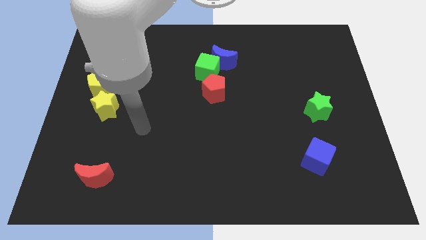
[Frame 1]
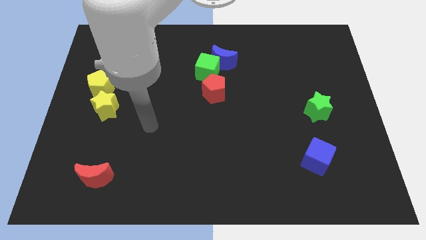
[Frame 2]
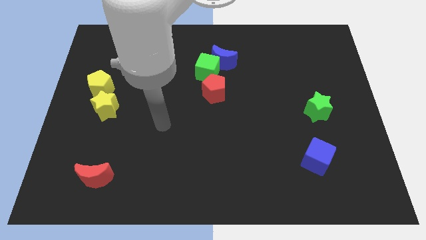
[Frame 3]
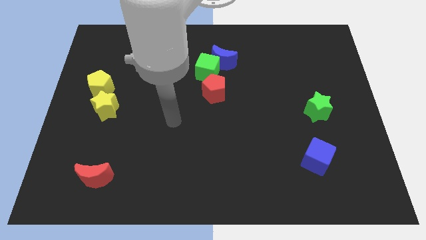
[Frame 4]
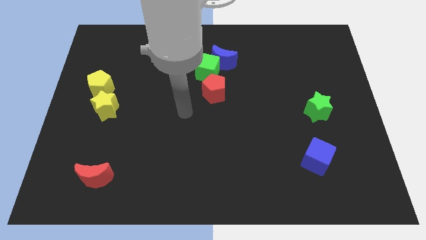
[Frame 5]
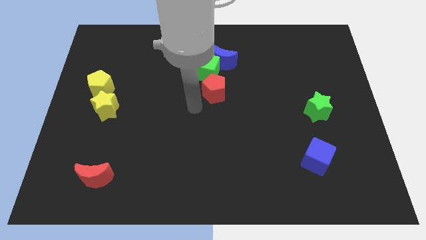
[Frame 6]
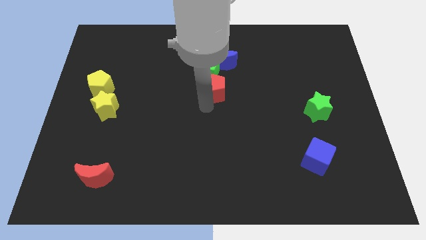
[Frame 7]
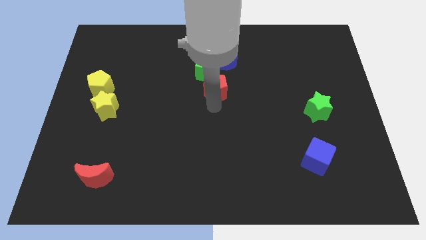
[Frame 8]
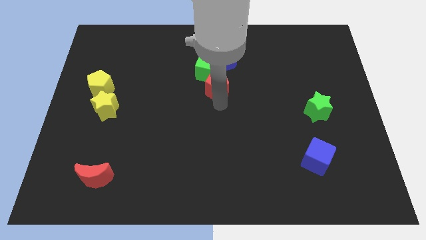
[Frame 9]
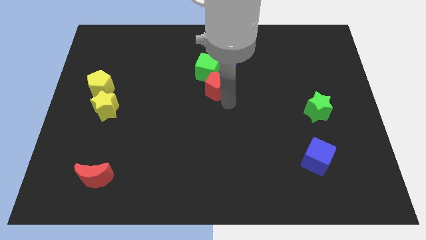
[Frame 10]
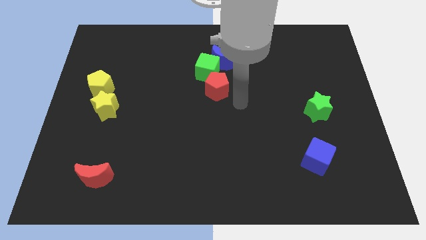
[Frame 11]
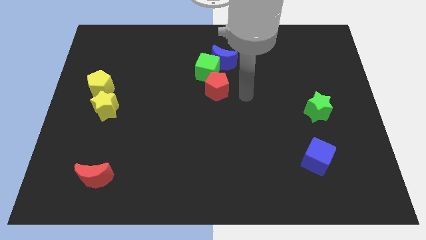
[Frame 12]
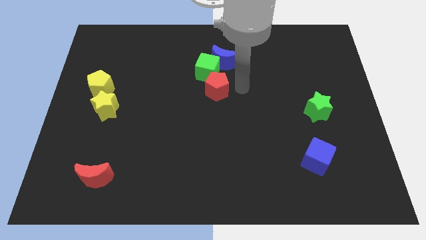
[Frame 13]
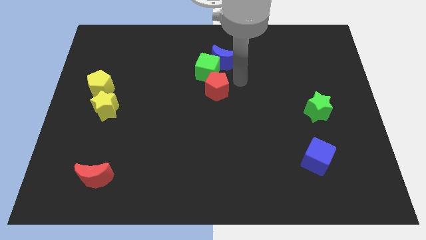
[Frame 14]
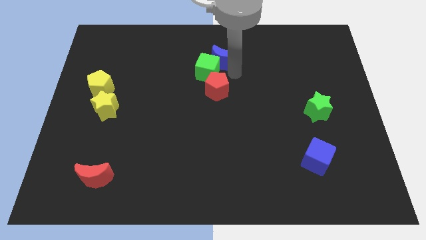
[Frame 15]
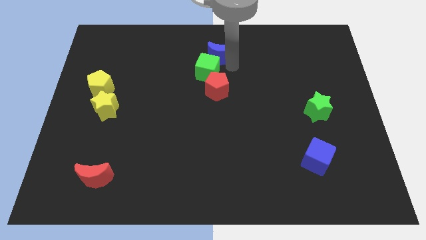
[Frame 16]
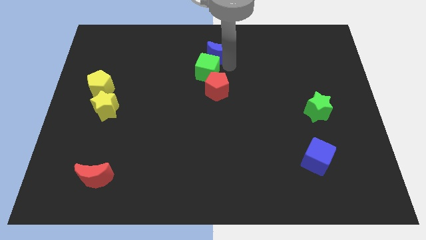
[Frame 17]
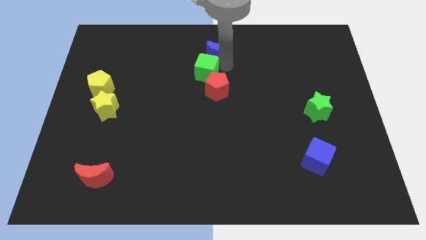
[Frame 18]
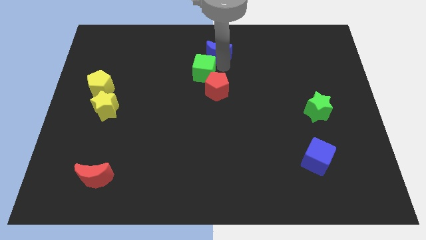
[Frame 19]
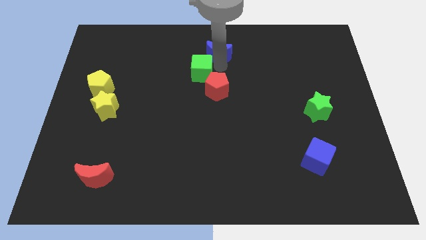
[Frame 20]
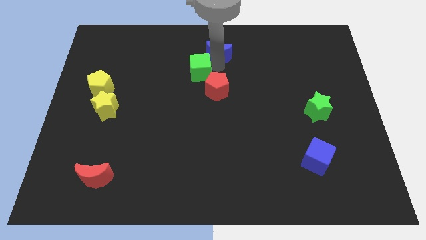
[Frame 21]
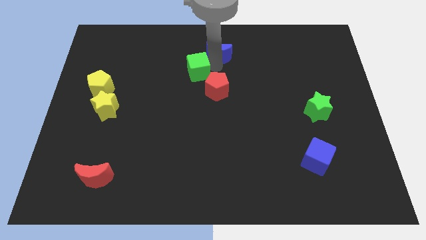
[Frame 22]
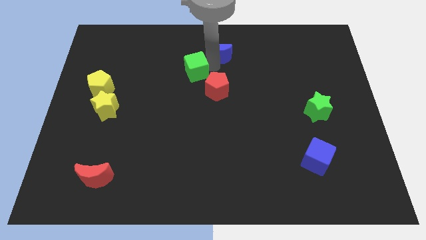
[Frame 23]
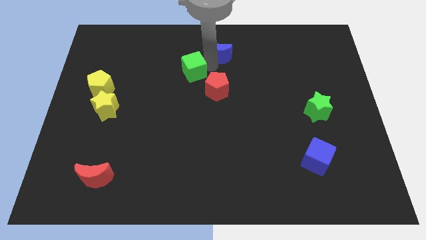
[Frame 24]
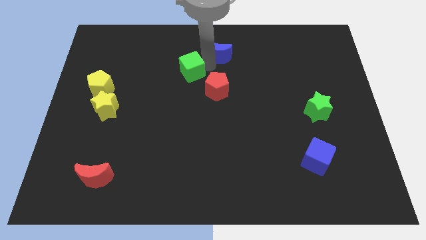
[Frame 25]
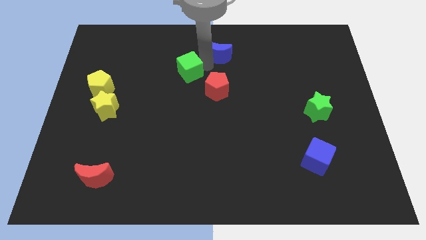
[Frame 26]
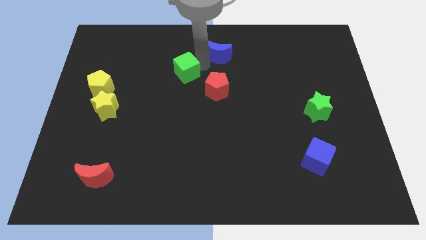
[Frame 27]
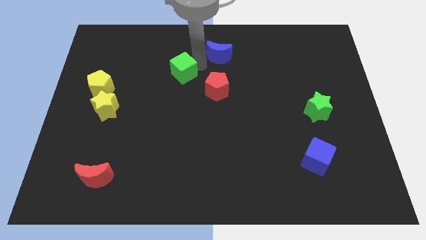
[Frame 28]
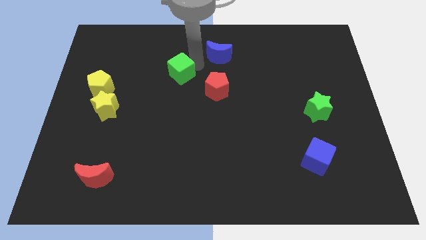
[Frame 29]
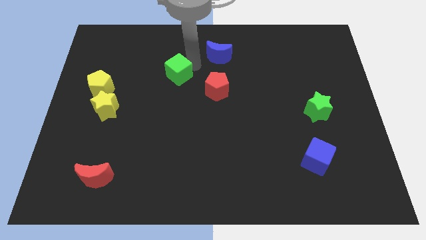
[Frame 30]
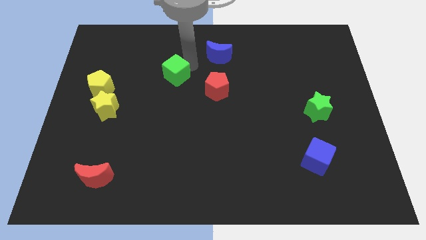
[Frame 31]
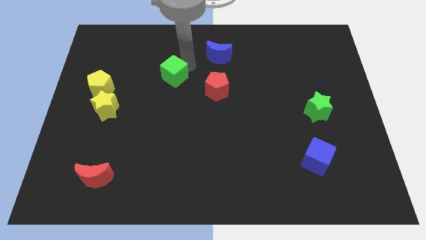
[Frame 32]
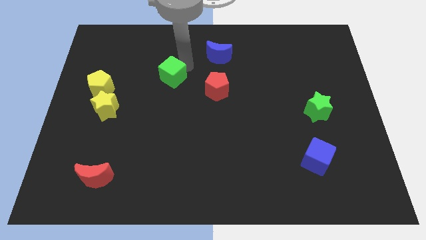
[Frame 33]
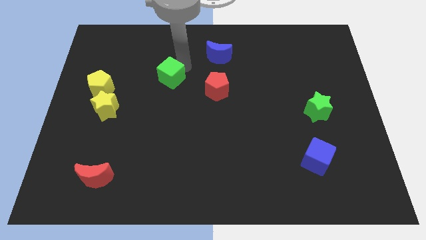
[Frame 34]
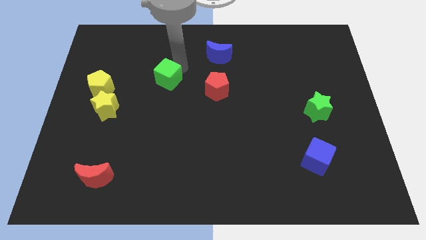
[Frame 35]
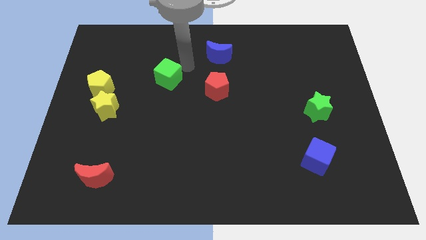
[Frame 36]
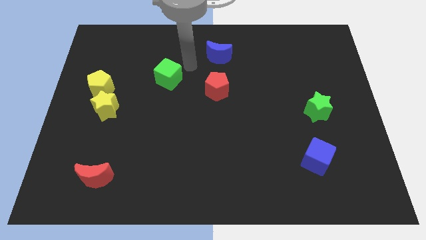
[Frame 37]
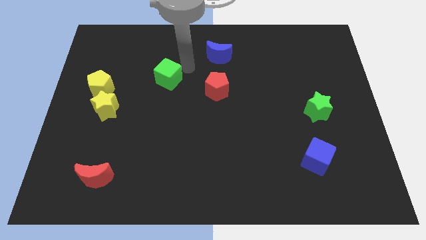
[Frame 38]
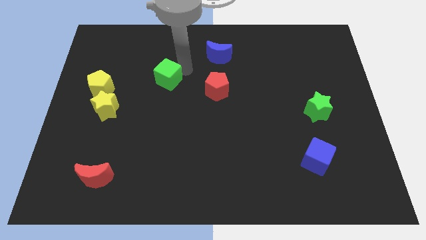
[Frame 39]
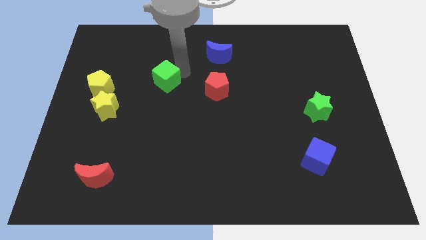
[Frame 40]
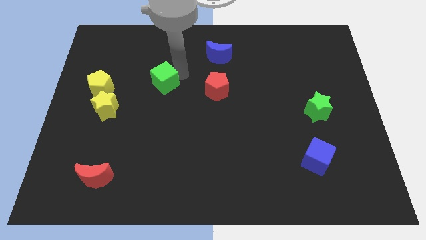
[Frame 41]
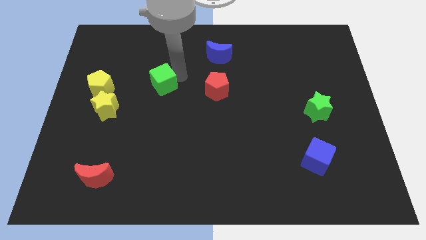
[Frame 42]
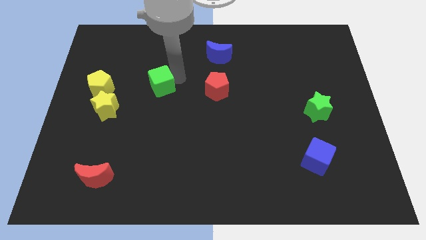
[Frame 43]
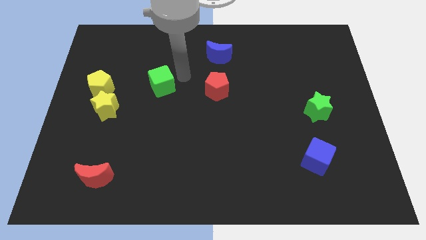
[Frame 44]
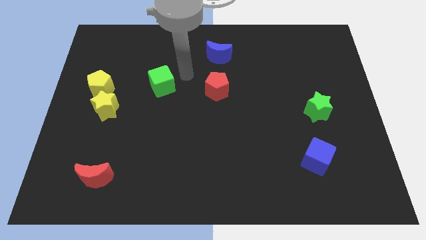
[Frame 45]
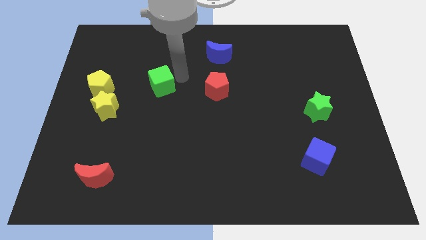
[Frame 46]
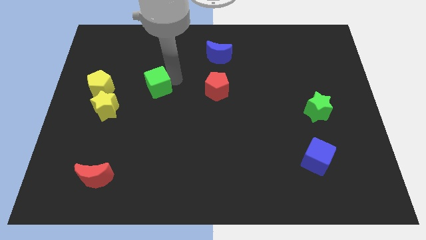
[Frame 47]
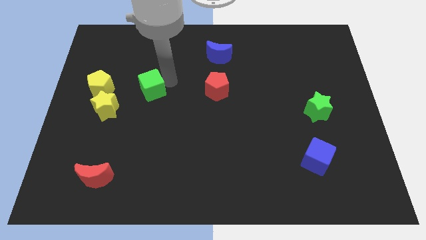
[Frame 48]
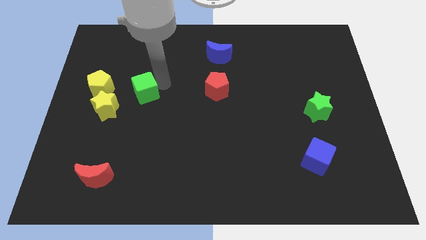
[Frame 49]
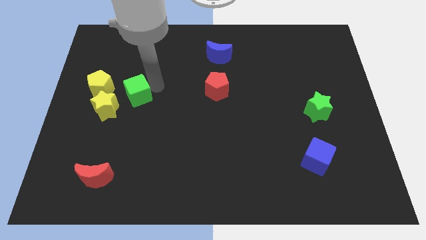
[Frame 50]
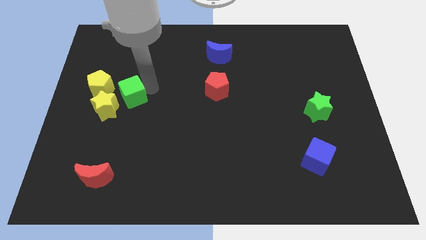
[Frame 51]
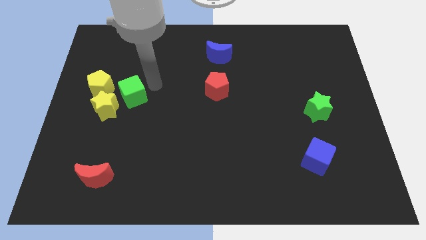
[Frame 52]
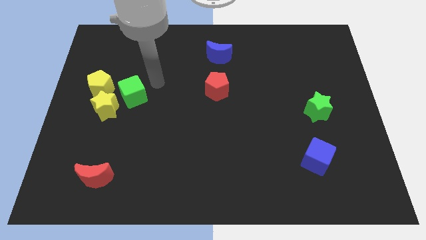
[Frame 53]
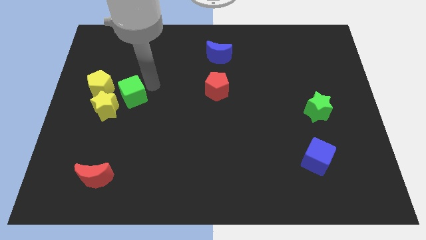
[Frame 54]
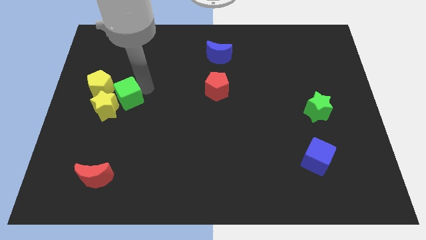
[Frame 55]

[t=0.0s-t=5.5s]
move the green cube close to the yellow star
